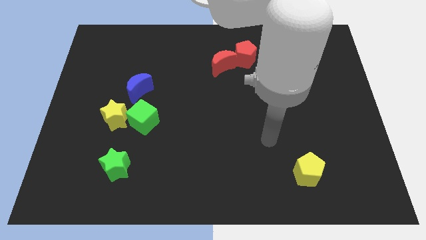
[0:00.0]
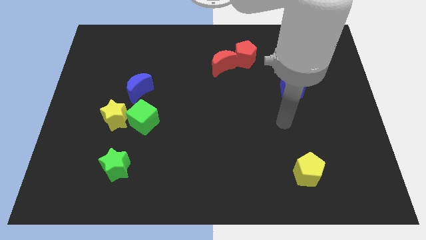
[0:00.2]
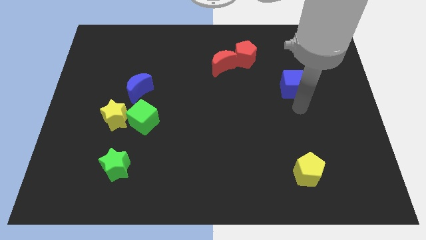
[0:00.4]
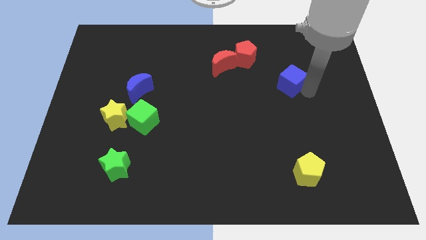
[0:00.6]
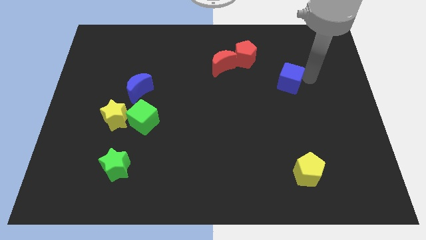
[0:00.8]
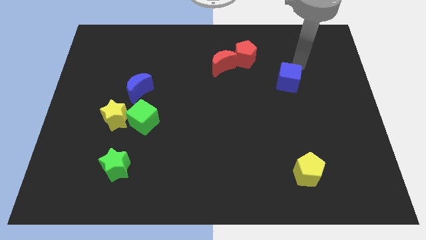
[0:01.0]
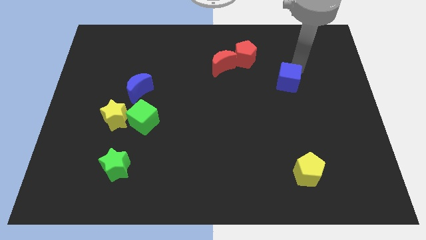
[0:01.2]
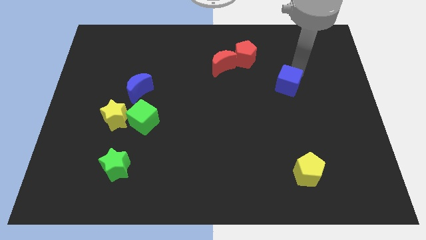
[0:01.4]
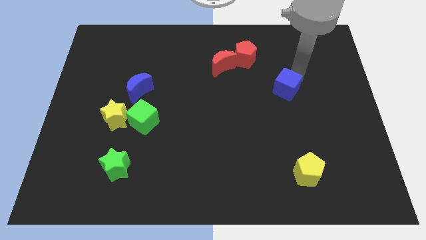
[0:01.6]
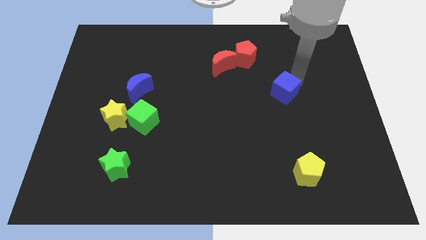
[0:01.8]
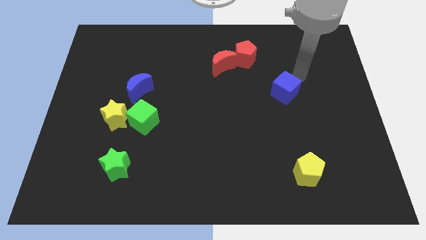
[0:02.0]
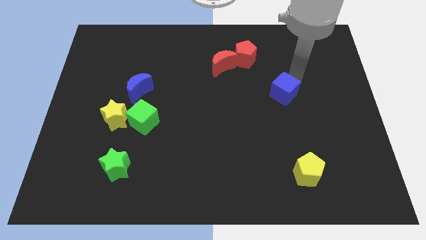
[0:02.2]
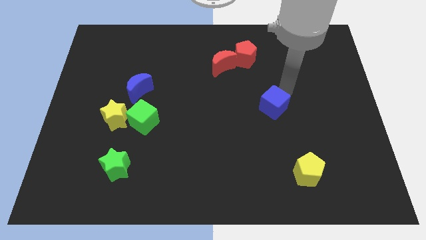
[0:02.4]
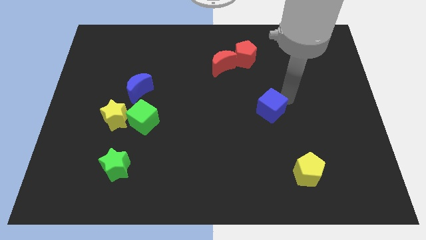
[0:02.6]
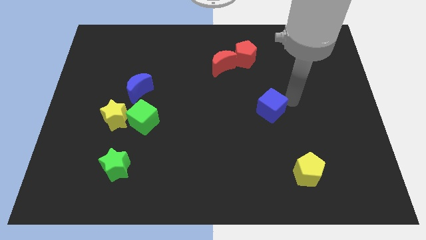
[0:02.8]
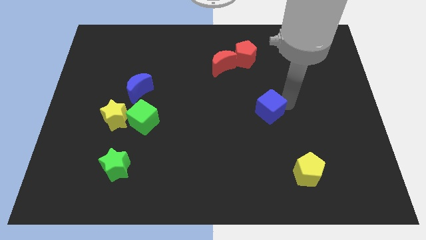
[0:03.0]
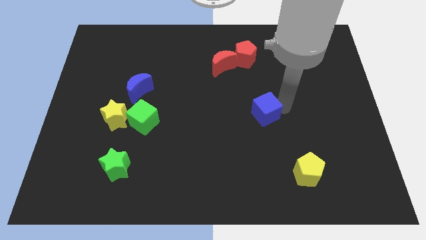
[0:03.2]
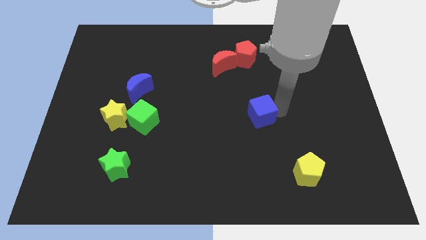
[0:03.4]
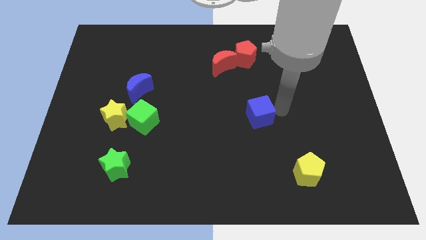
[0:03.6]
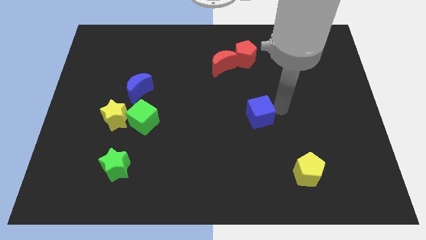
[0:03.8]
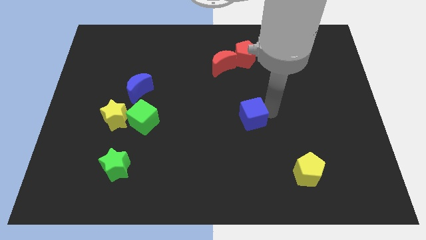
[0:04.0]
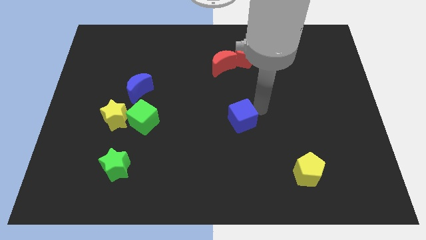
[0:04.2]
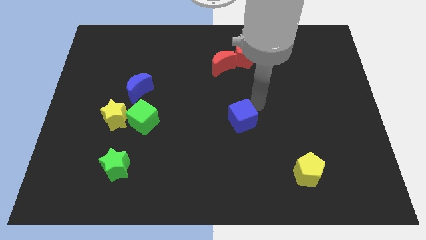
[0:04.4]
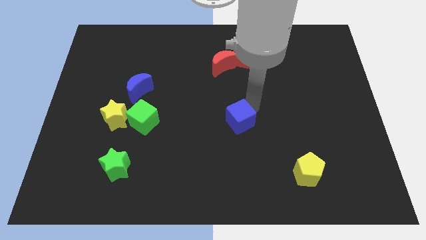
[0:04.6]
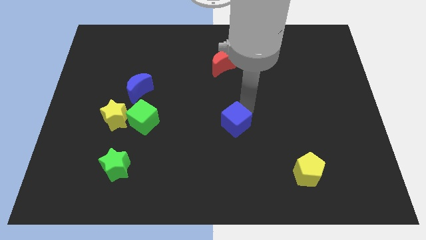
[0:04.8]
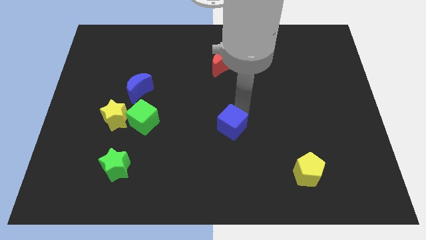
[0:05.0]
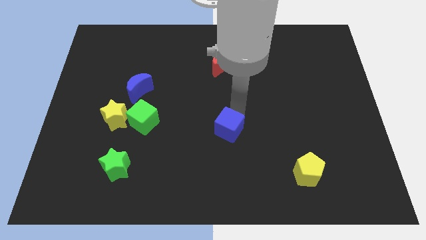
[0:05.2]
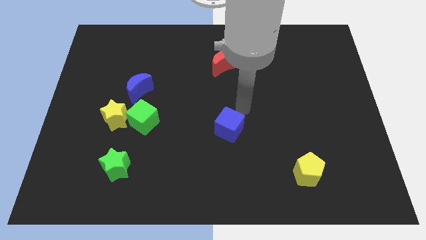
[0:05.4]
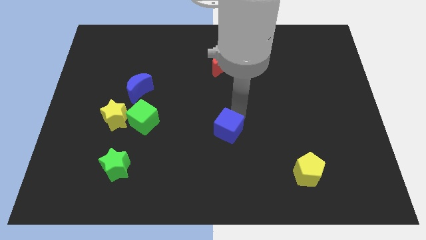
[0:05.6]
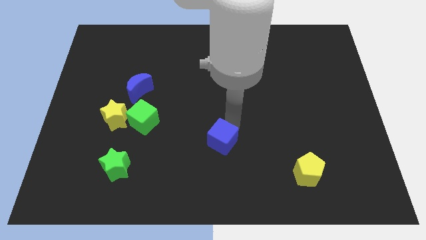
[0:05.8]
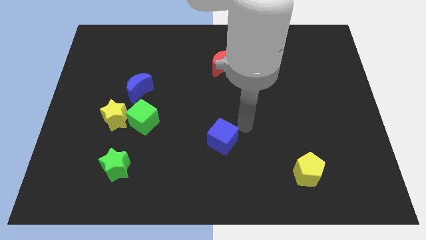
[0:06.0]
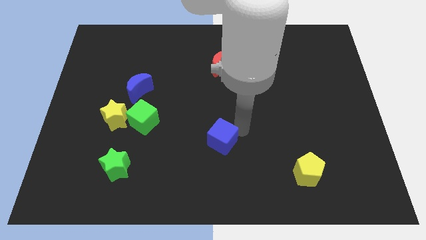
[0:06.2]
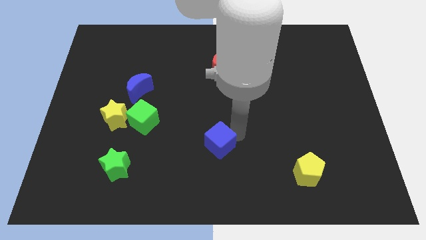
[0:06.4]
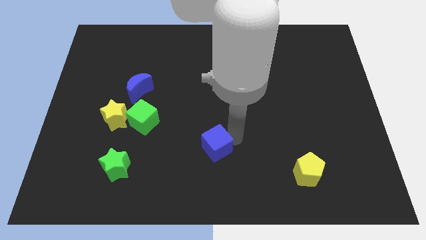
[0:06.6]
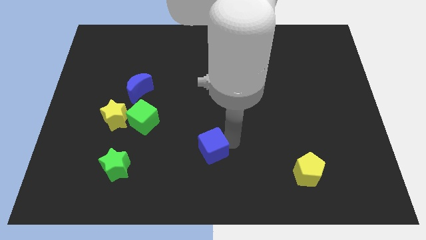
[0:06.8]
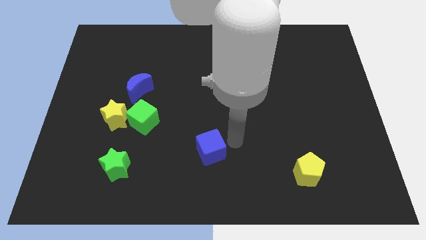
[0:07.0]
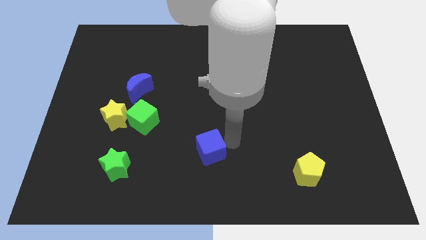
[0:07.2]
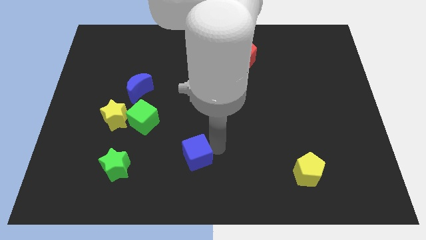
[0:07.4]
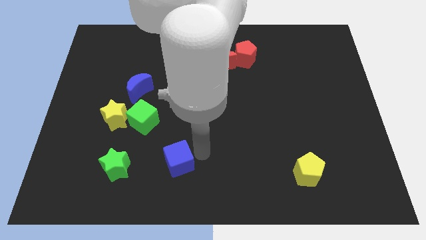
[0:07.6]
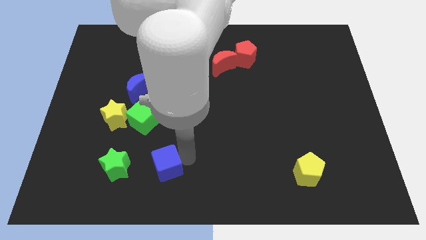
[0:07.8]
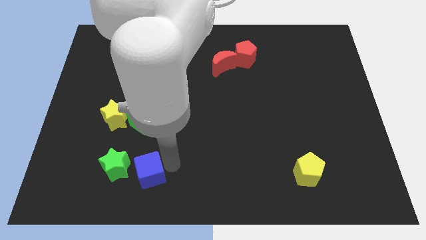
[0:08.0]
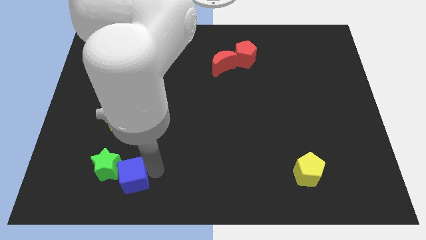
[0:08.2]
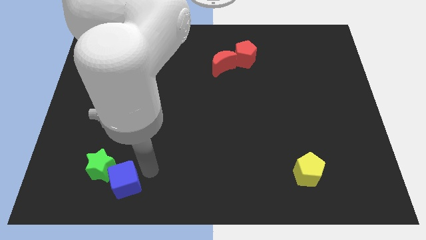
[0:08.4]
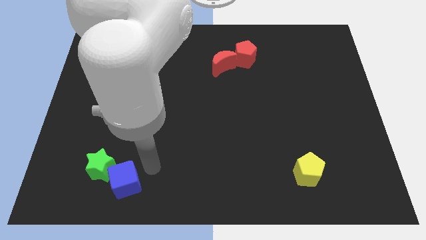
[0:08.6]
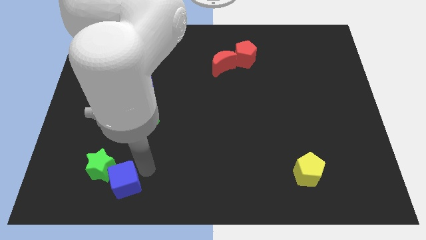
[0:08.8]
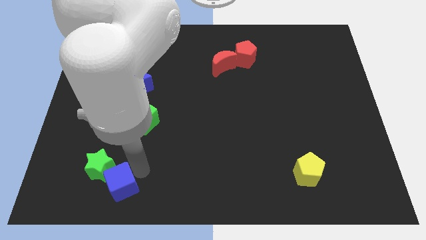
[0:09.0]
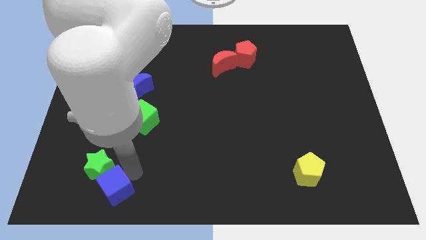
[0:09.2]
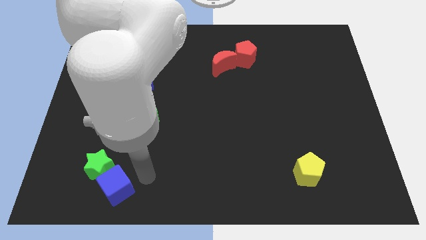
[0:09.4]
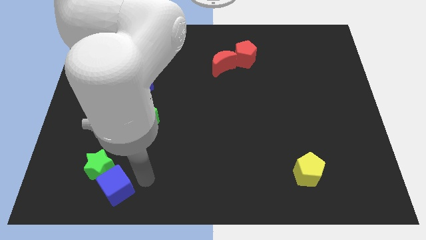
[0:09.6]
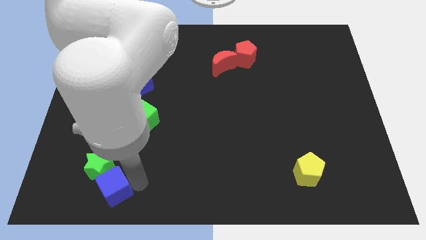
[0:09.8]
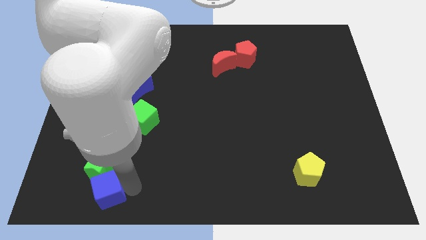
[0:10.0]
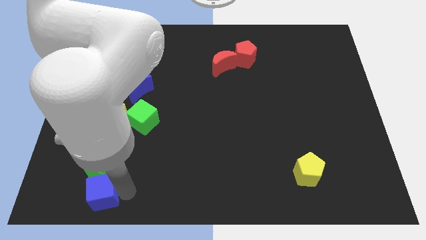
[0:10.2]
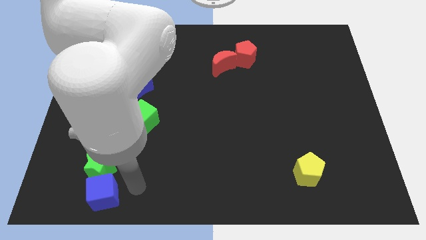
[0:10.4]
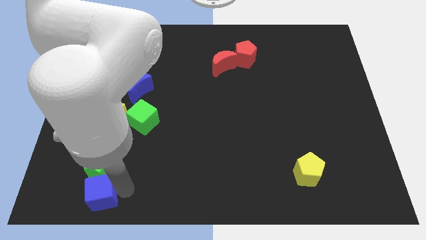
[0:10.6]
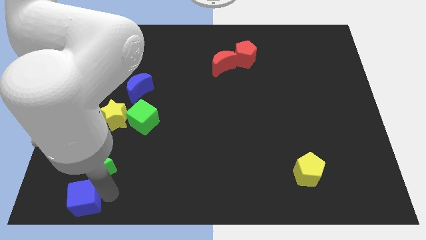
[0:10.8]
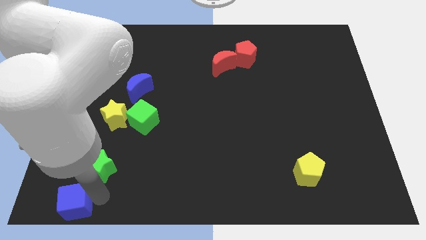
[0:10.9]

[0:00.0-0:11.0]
push the blue cube to the bottom left corner

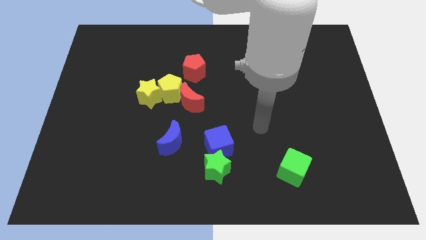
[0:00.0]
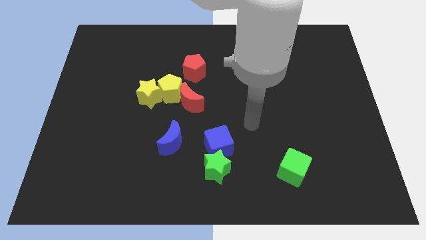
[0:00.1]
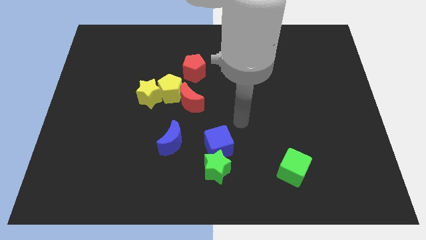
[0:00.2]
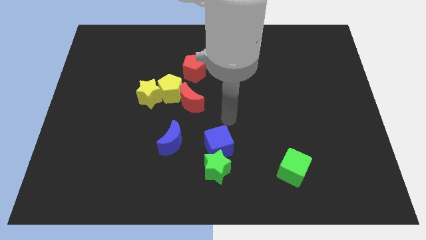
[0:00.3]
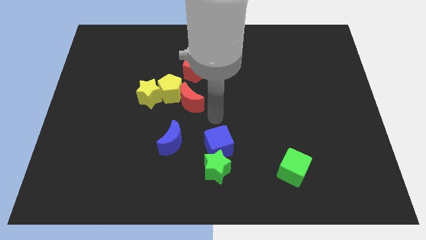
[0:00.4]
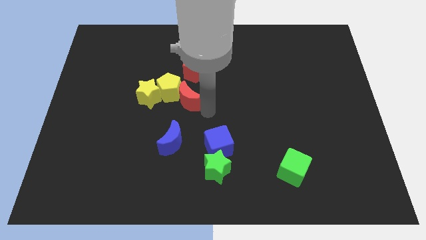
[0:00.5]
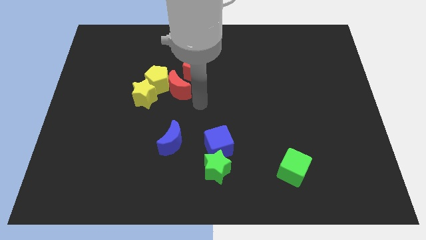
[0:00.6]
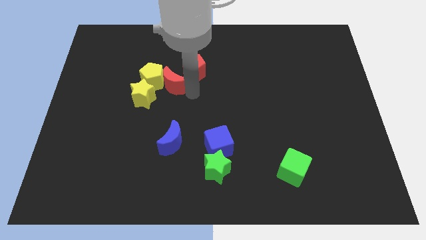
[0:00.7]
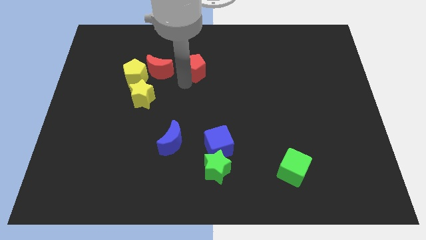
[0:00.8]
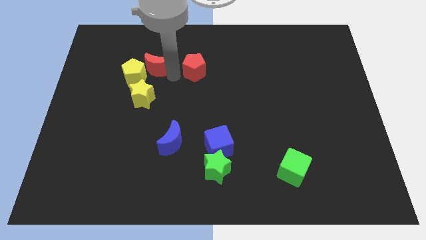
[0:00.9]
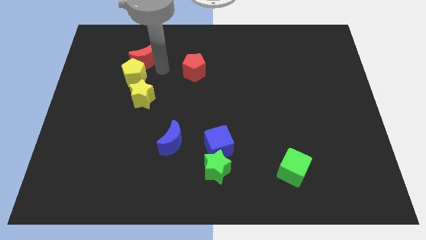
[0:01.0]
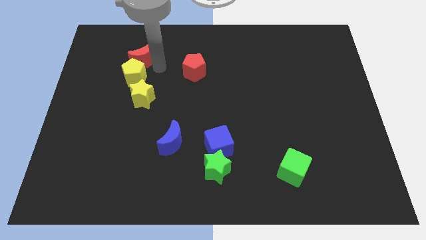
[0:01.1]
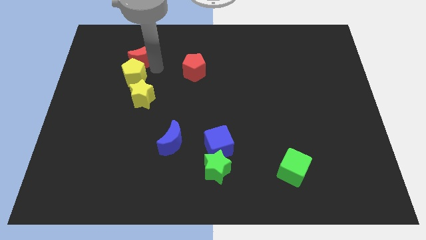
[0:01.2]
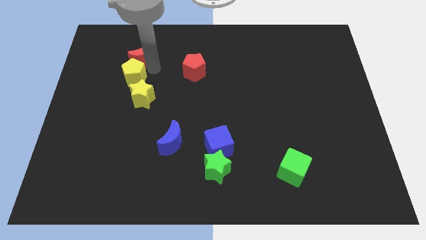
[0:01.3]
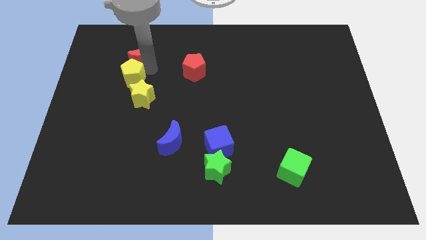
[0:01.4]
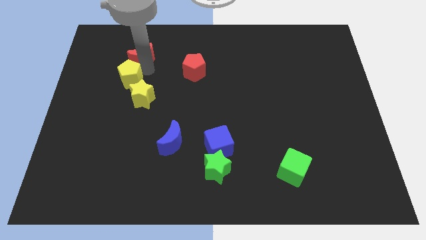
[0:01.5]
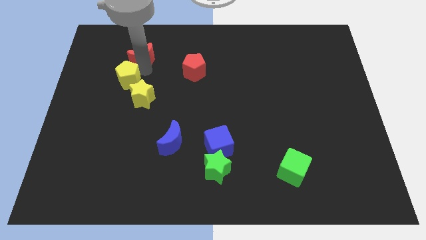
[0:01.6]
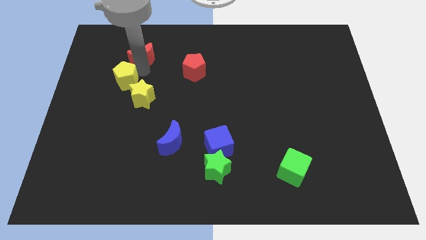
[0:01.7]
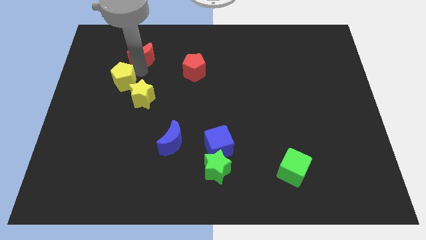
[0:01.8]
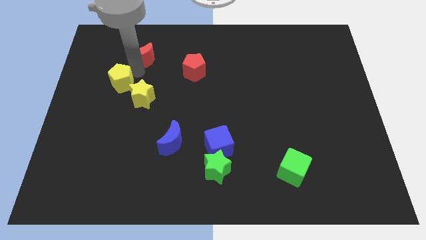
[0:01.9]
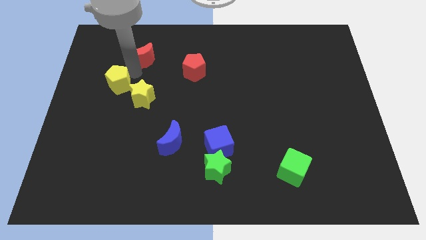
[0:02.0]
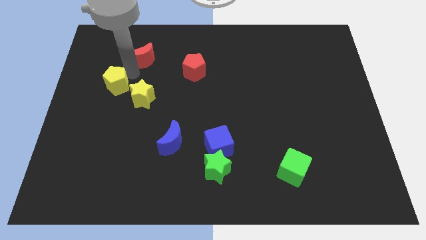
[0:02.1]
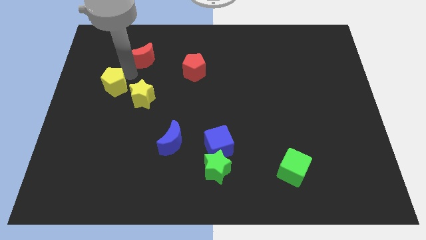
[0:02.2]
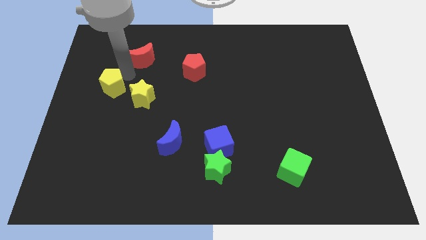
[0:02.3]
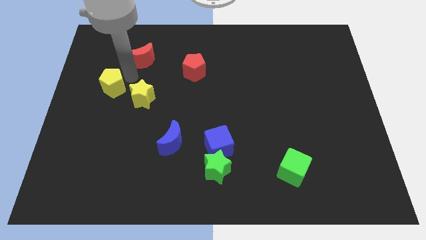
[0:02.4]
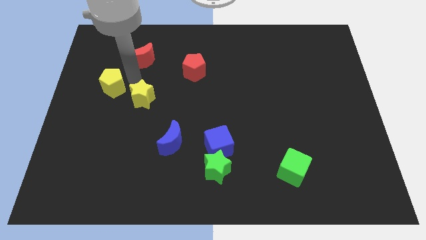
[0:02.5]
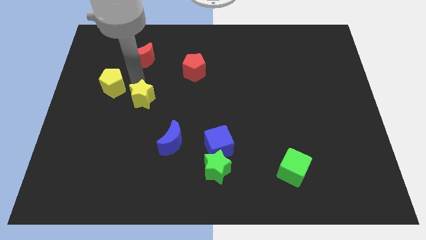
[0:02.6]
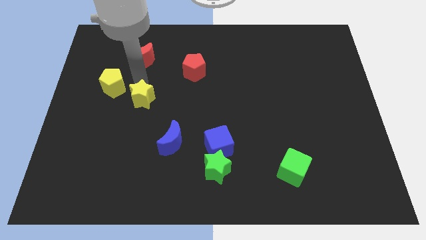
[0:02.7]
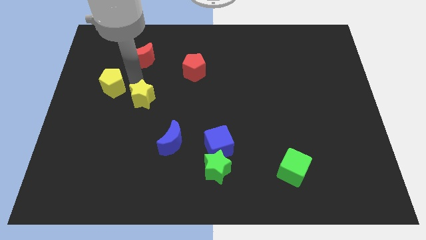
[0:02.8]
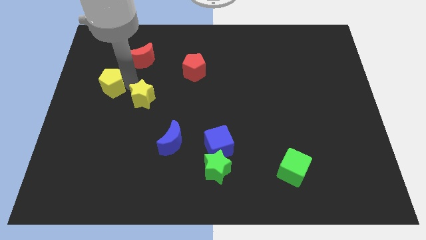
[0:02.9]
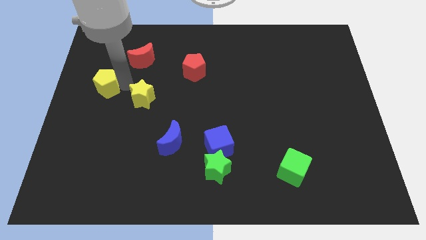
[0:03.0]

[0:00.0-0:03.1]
push the yellow pentagon to the left side of the board
